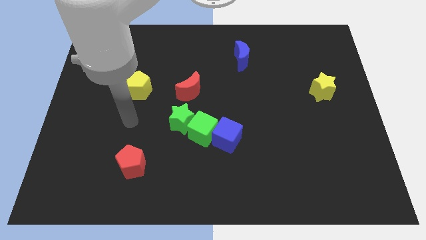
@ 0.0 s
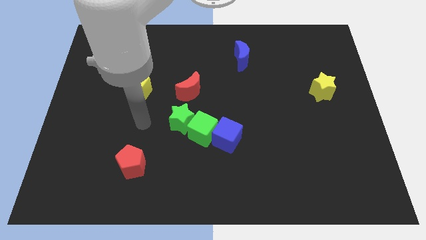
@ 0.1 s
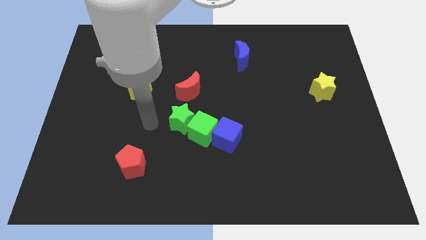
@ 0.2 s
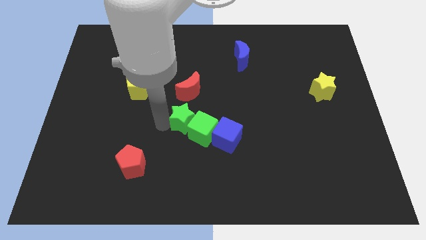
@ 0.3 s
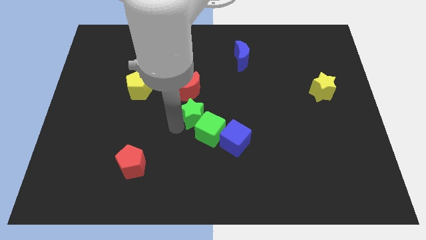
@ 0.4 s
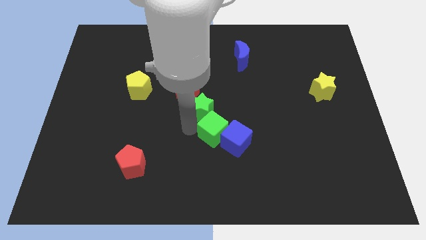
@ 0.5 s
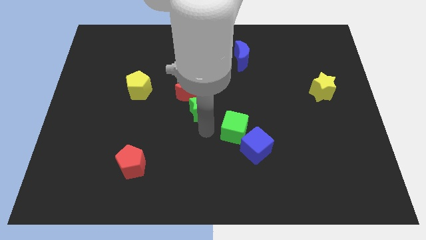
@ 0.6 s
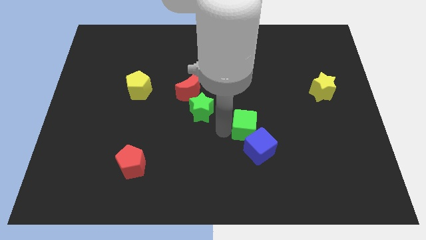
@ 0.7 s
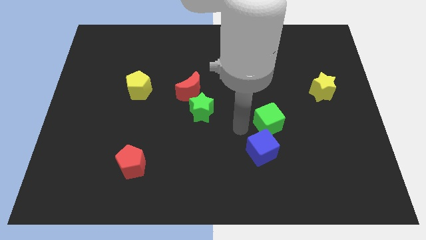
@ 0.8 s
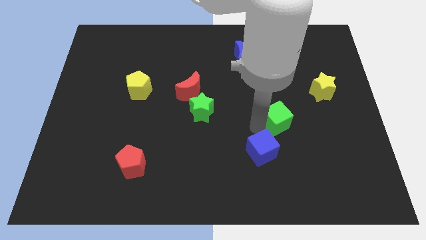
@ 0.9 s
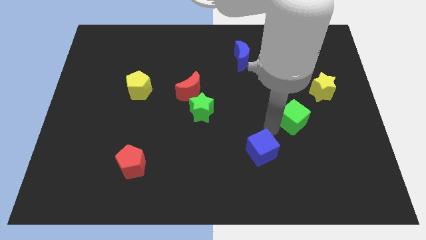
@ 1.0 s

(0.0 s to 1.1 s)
pull the blue cube apart from the green cube

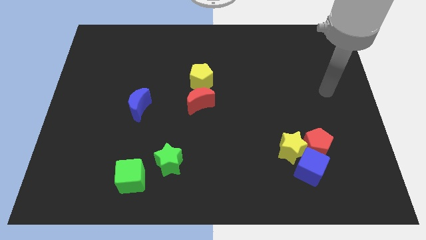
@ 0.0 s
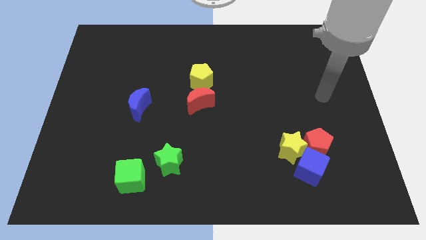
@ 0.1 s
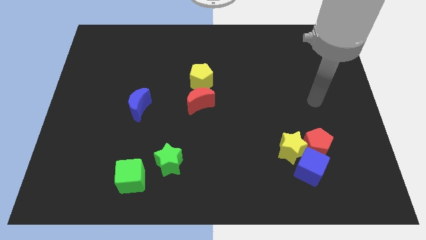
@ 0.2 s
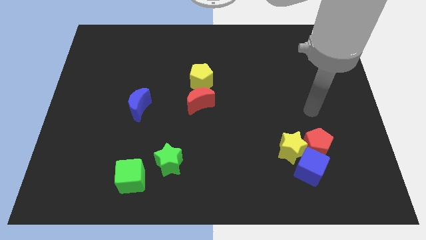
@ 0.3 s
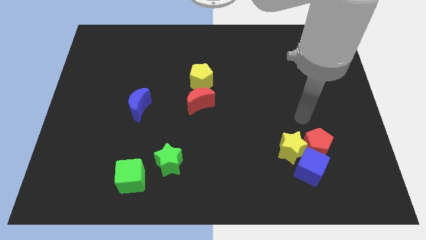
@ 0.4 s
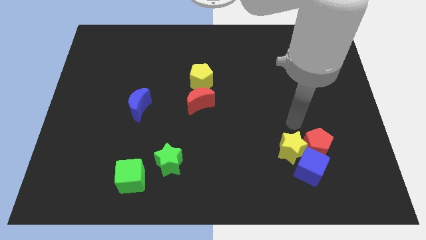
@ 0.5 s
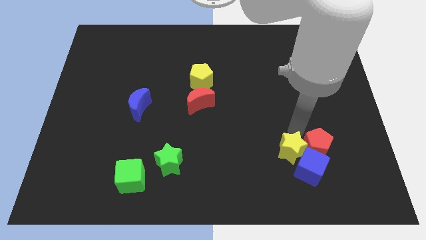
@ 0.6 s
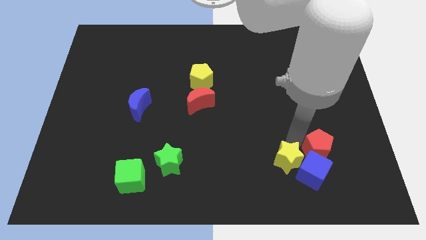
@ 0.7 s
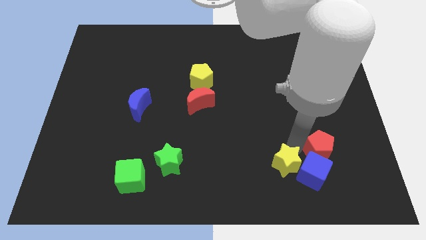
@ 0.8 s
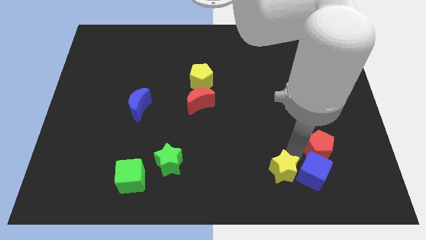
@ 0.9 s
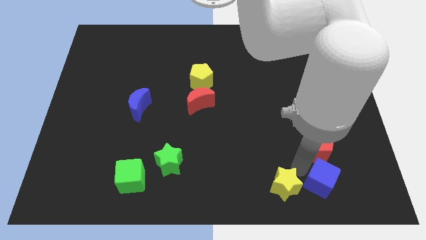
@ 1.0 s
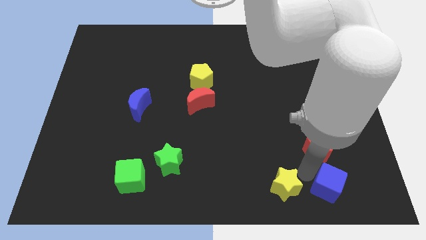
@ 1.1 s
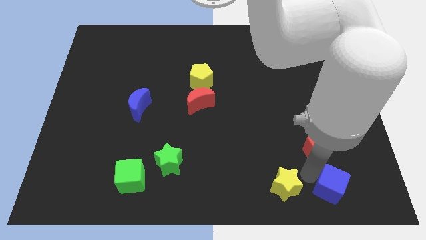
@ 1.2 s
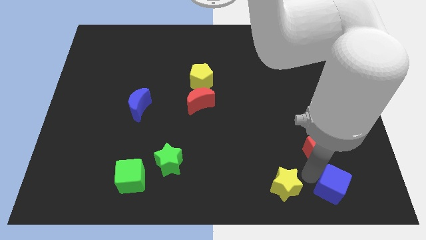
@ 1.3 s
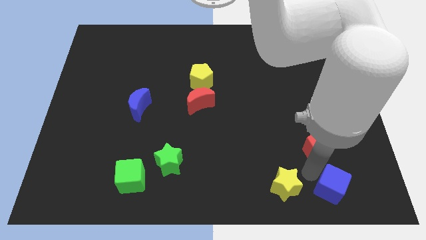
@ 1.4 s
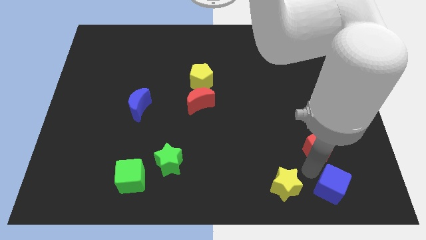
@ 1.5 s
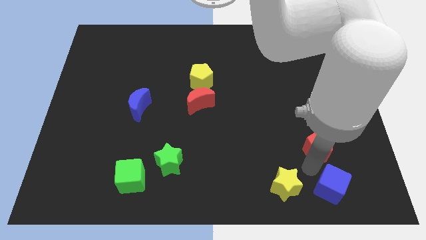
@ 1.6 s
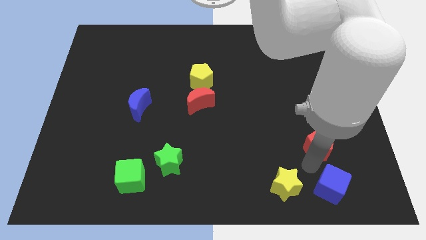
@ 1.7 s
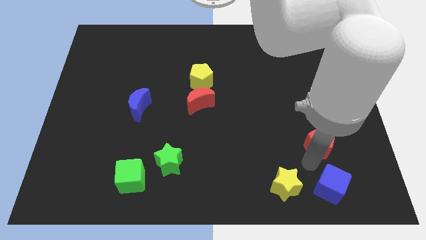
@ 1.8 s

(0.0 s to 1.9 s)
separate the red pentagon from the yellow star and blue cube

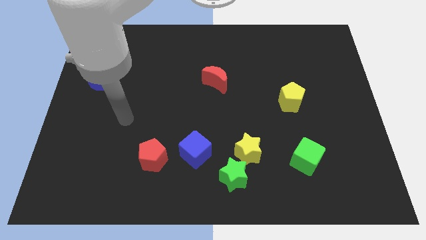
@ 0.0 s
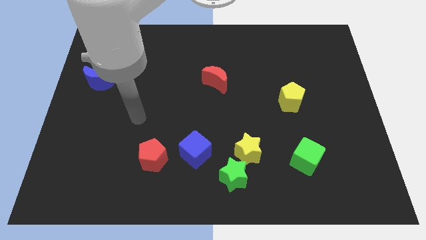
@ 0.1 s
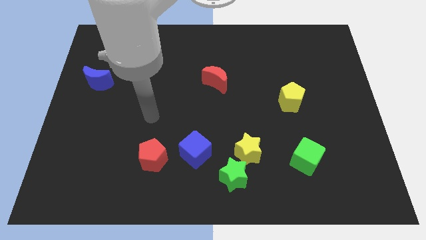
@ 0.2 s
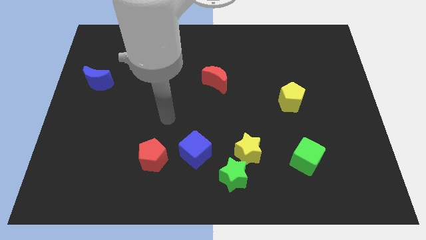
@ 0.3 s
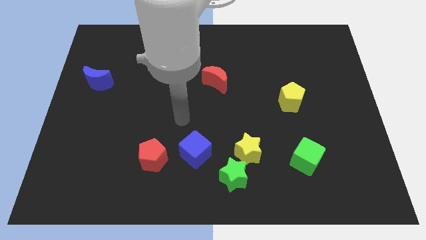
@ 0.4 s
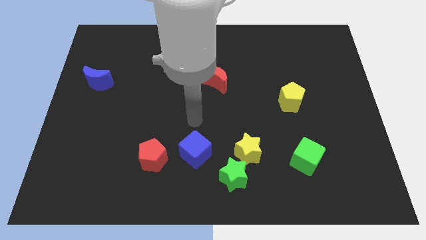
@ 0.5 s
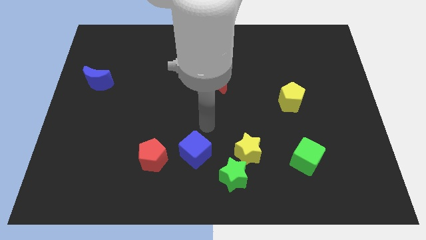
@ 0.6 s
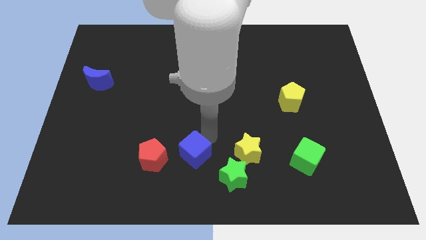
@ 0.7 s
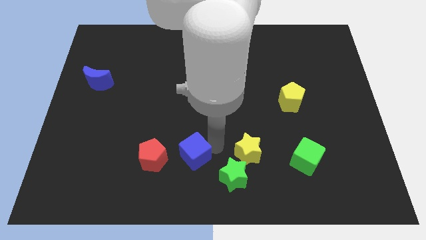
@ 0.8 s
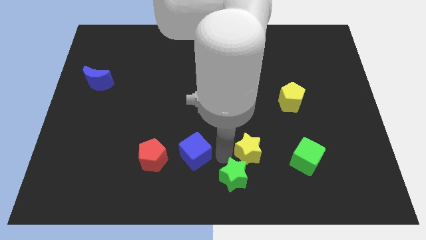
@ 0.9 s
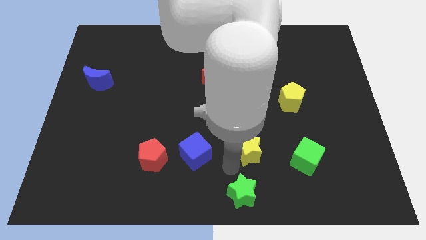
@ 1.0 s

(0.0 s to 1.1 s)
separate the yellow star from the green star

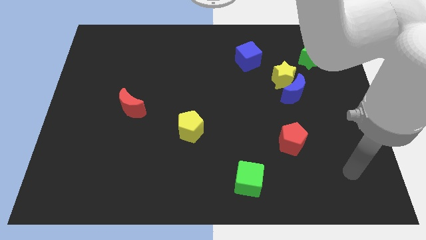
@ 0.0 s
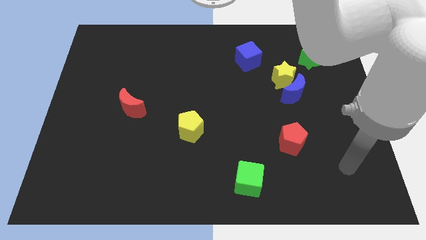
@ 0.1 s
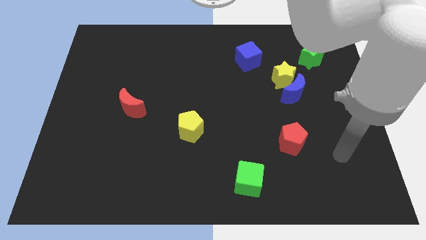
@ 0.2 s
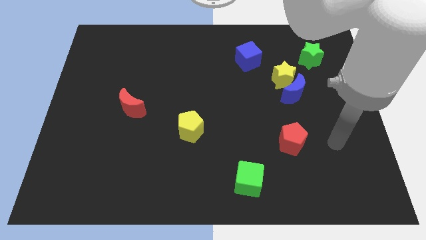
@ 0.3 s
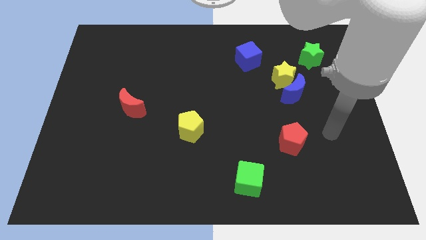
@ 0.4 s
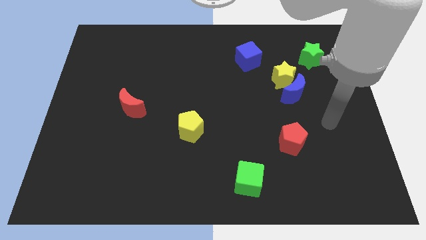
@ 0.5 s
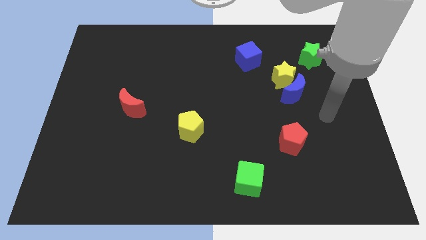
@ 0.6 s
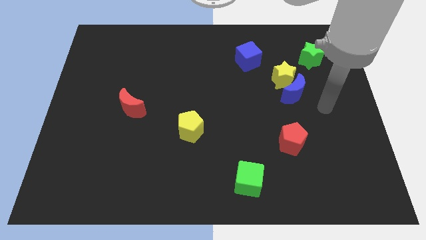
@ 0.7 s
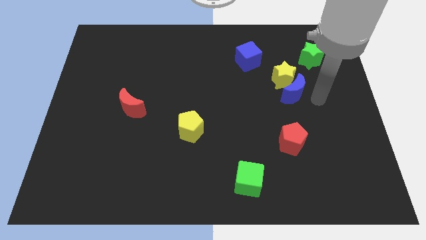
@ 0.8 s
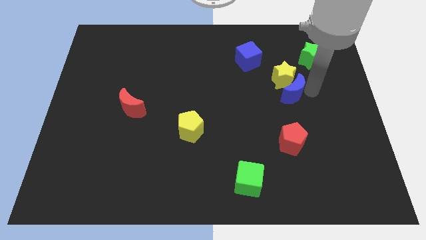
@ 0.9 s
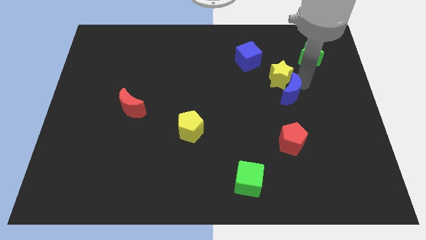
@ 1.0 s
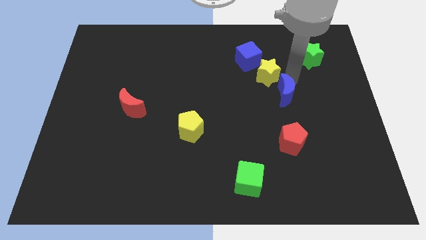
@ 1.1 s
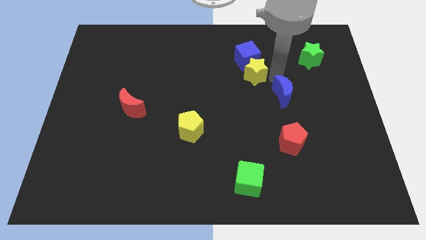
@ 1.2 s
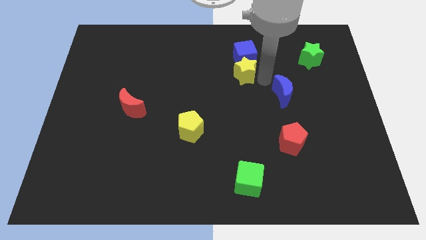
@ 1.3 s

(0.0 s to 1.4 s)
separate the blue moon from the yellow star

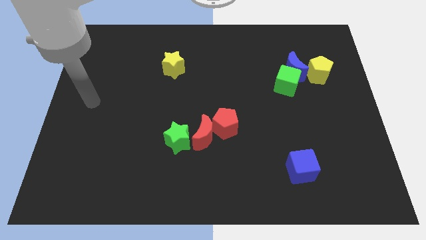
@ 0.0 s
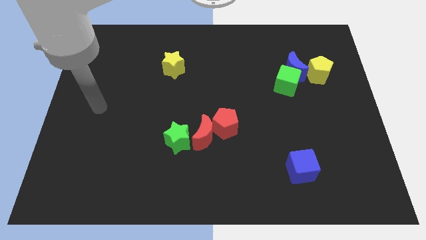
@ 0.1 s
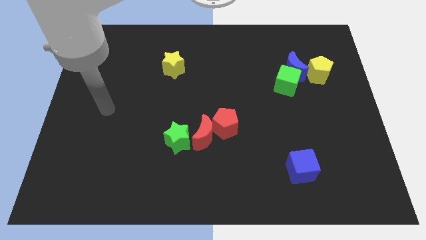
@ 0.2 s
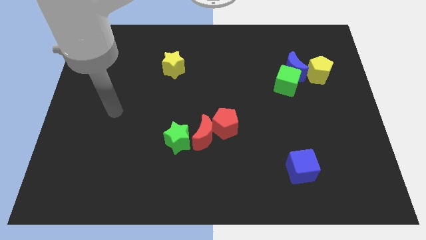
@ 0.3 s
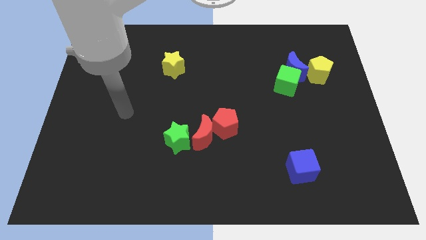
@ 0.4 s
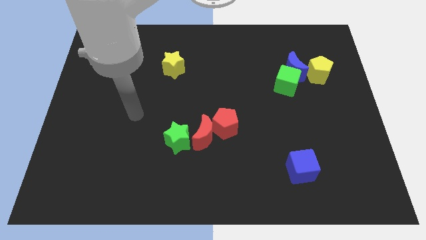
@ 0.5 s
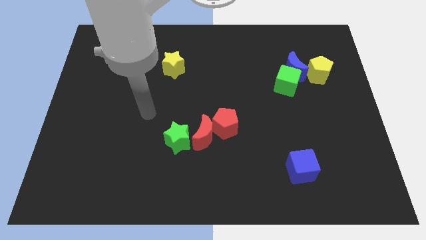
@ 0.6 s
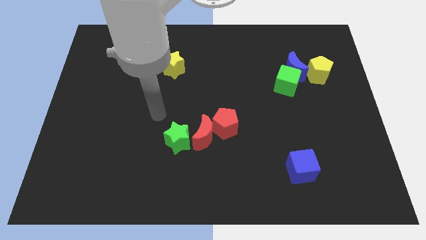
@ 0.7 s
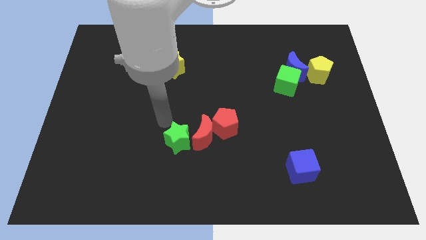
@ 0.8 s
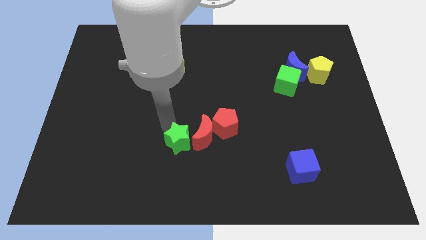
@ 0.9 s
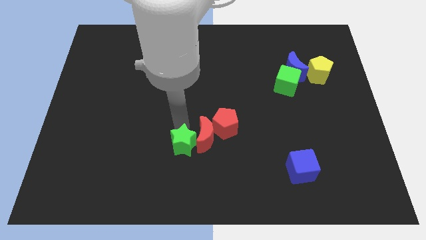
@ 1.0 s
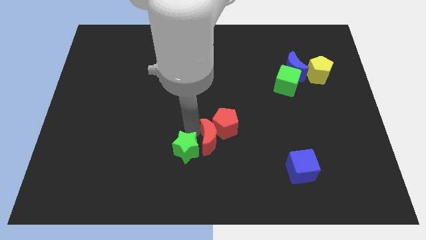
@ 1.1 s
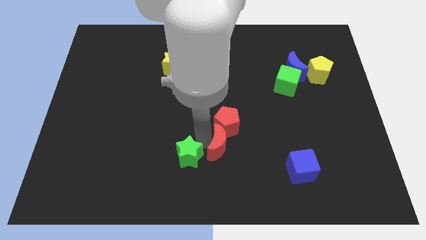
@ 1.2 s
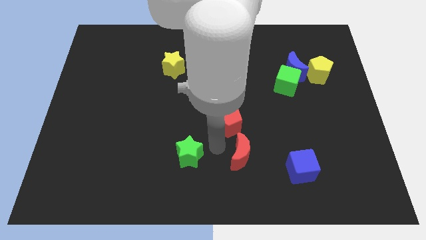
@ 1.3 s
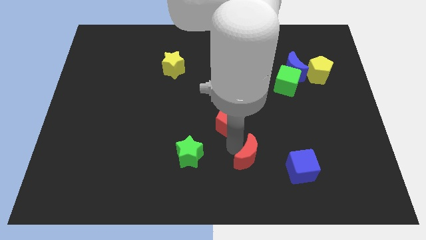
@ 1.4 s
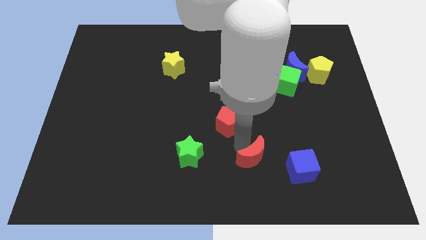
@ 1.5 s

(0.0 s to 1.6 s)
move the red pentagon away from the red moon

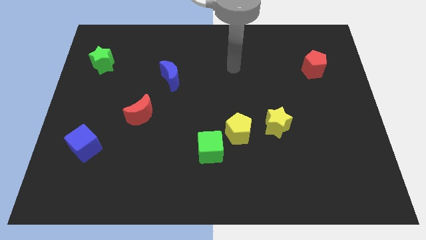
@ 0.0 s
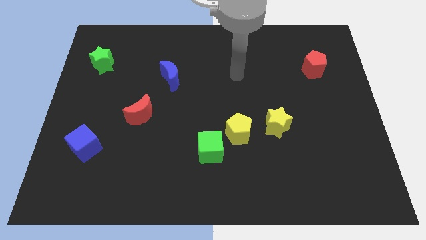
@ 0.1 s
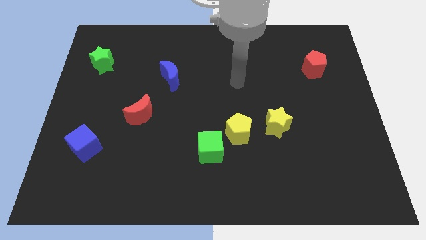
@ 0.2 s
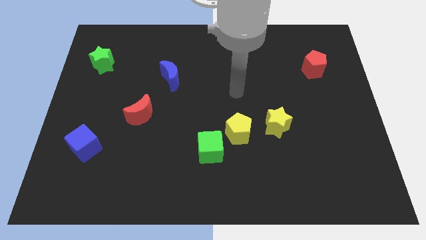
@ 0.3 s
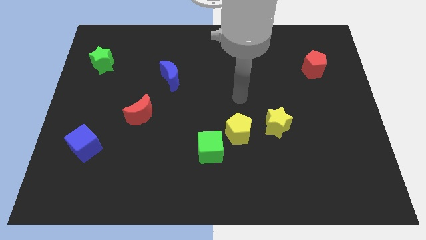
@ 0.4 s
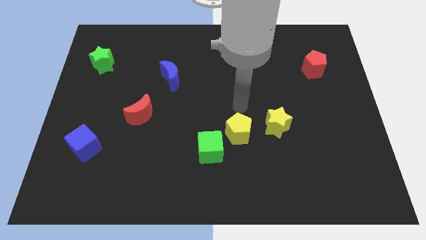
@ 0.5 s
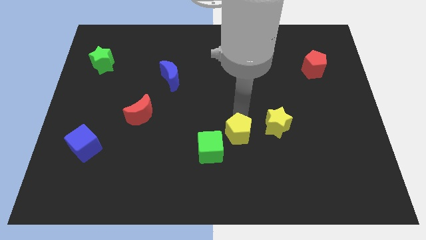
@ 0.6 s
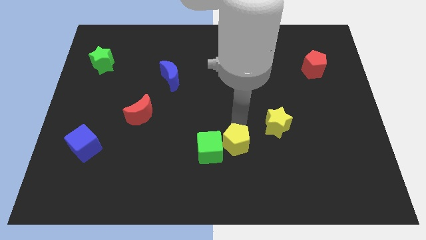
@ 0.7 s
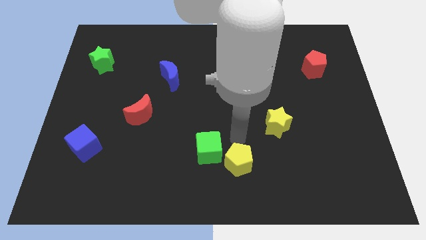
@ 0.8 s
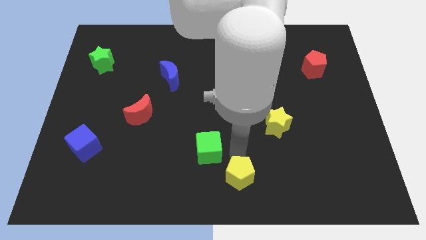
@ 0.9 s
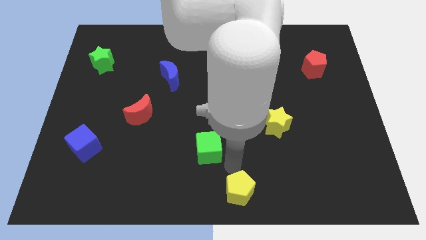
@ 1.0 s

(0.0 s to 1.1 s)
move the green cube away from the yellow pentagon

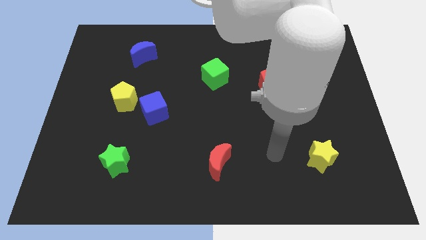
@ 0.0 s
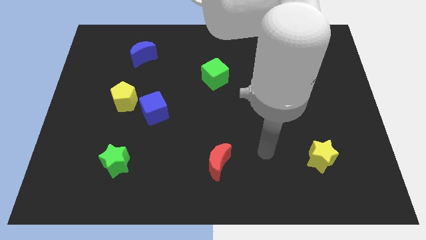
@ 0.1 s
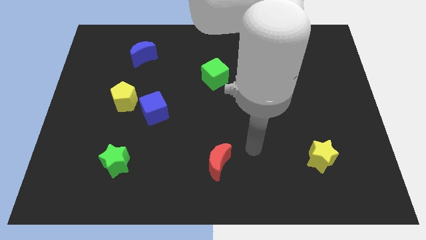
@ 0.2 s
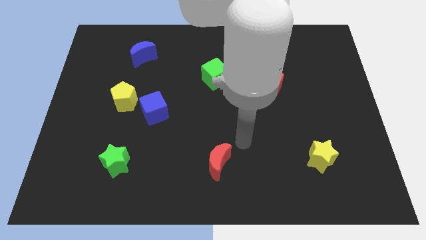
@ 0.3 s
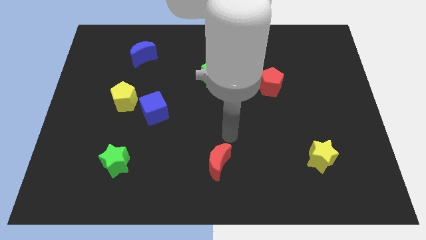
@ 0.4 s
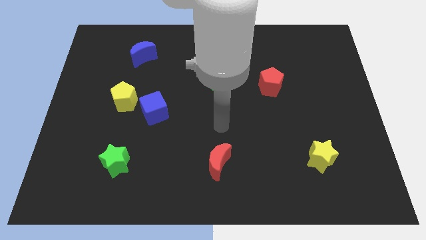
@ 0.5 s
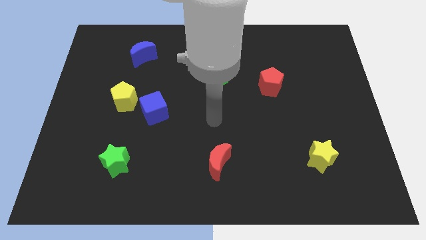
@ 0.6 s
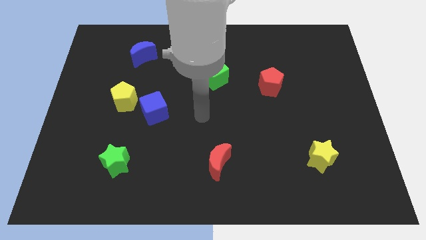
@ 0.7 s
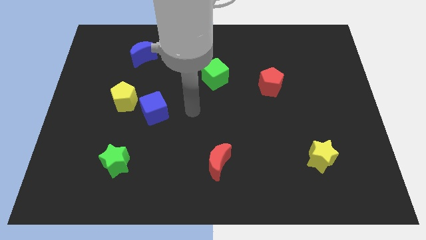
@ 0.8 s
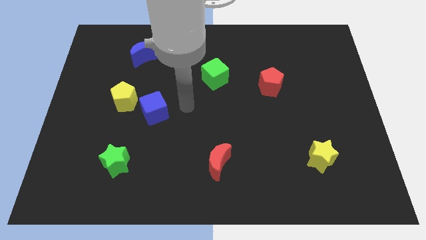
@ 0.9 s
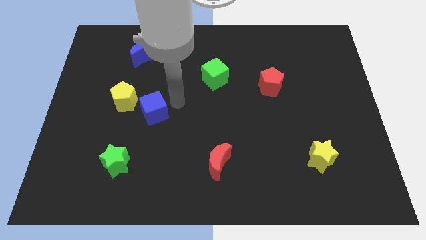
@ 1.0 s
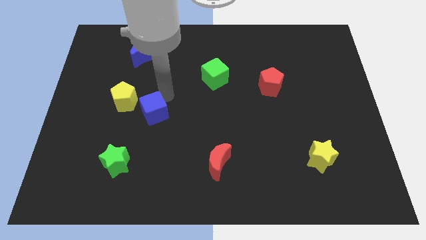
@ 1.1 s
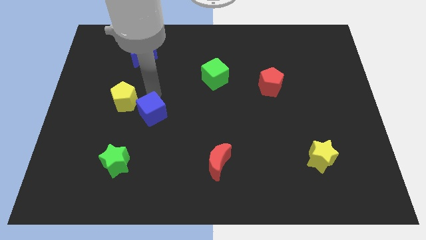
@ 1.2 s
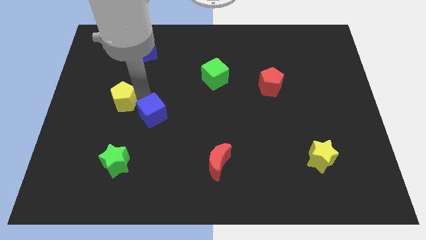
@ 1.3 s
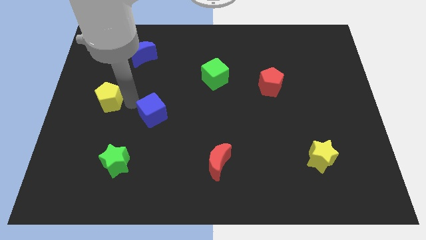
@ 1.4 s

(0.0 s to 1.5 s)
separate the blue cube from the yellow pentagon
